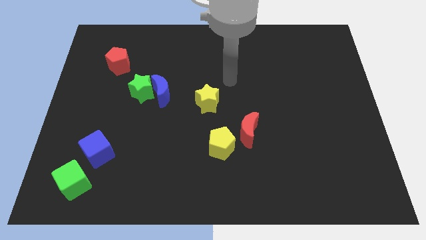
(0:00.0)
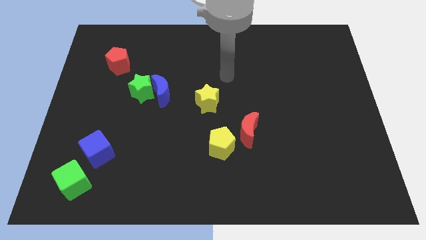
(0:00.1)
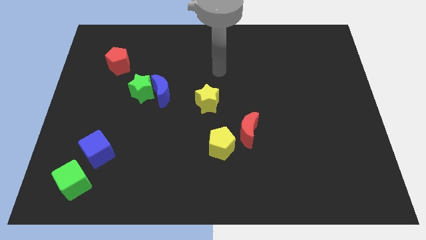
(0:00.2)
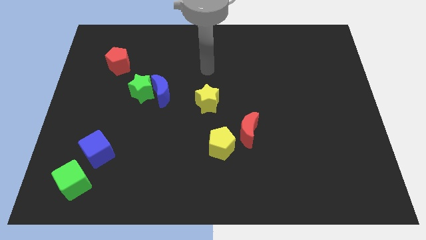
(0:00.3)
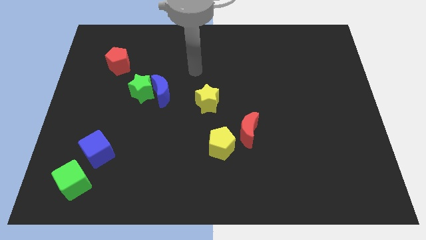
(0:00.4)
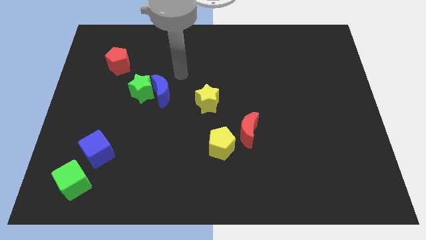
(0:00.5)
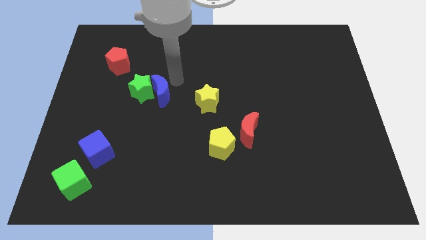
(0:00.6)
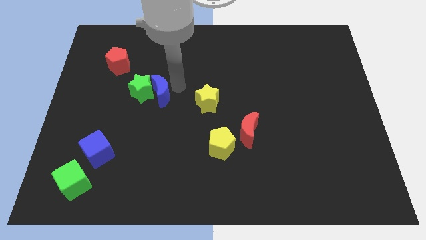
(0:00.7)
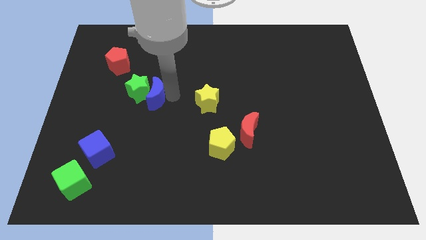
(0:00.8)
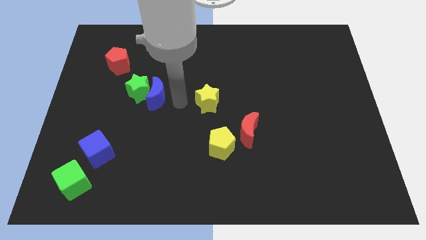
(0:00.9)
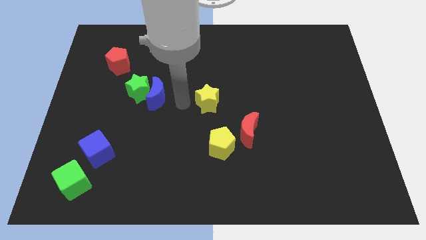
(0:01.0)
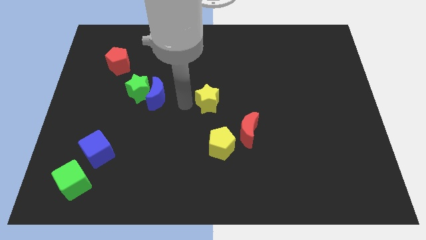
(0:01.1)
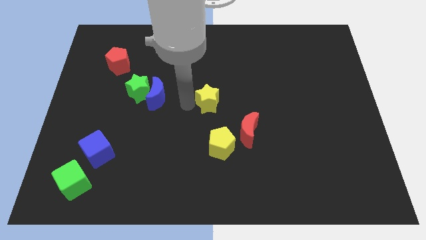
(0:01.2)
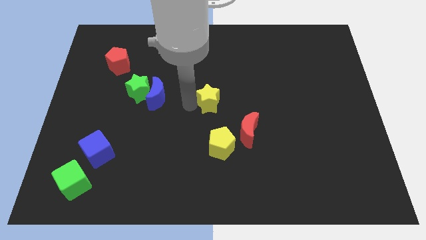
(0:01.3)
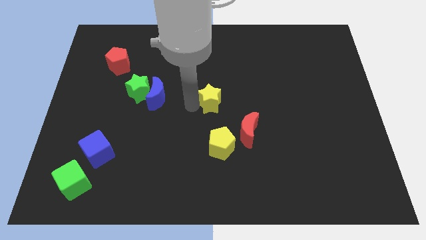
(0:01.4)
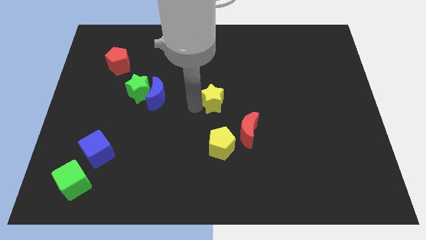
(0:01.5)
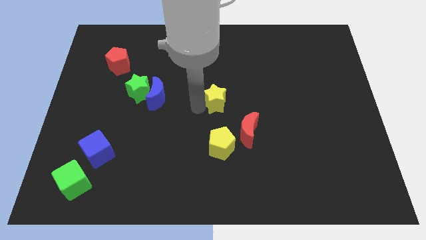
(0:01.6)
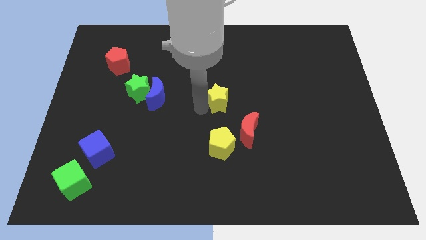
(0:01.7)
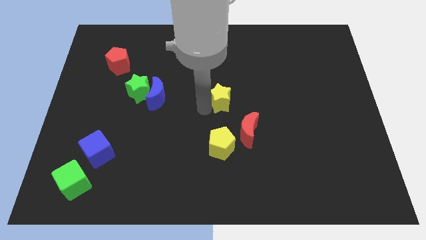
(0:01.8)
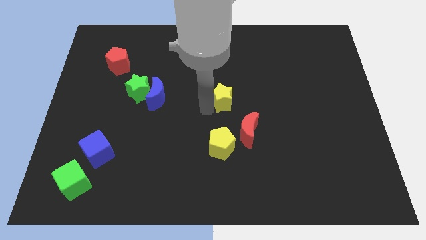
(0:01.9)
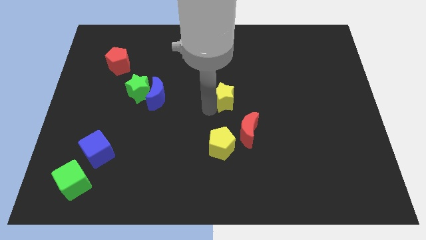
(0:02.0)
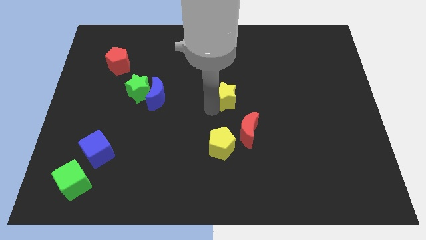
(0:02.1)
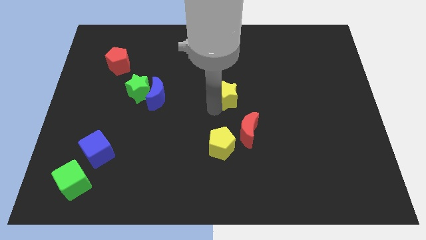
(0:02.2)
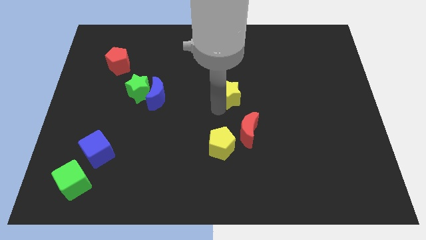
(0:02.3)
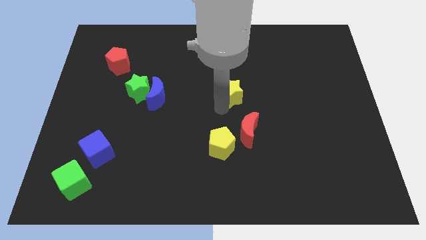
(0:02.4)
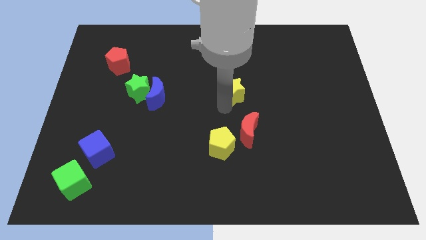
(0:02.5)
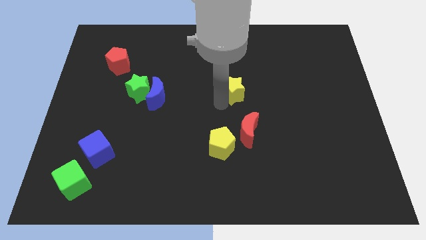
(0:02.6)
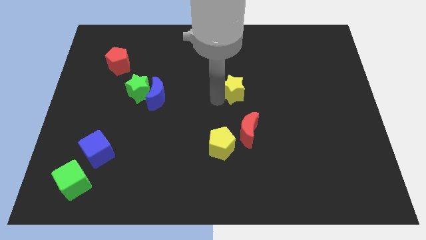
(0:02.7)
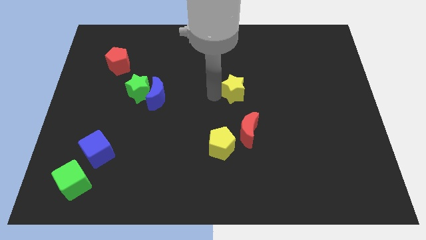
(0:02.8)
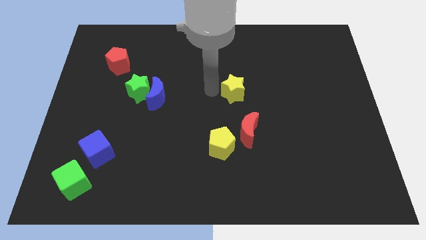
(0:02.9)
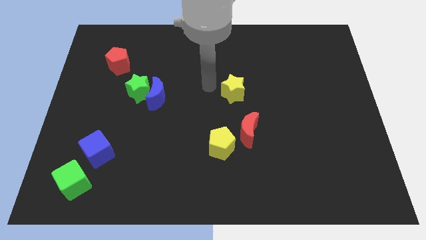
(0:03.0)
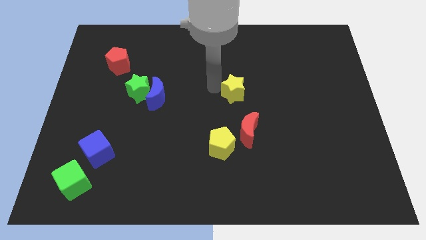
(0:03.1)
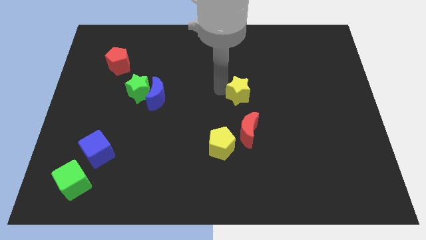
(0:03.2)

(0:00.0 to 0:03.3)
slightly slide the yellow star to the right

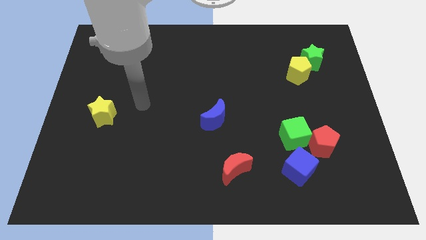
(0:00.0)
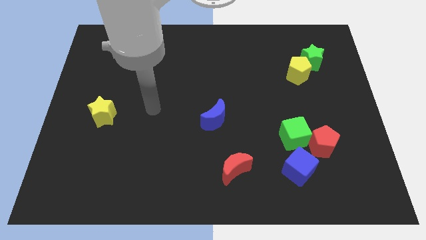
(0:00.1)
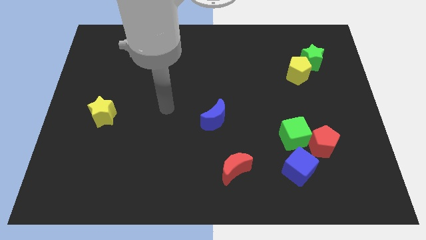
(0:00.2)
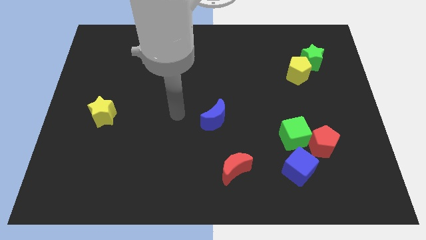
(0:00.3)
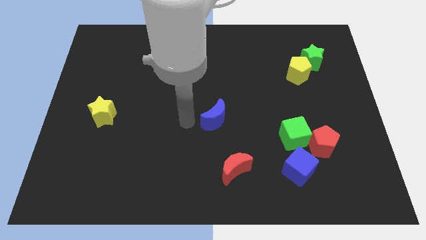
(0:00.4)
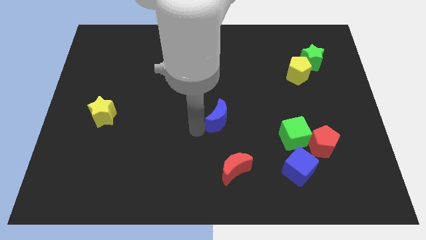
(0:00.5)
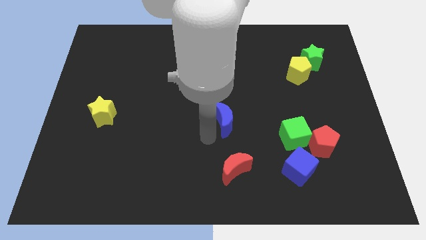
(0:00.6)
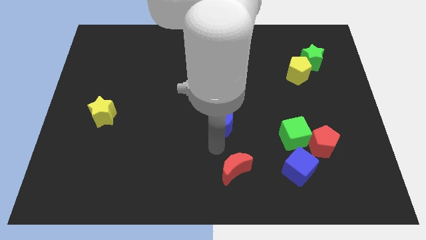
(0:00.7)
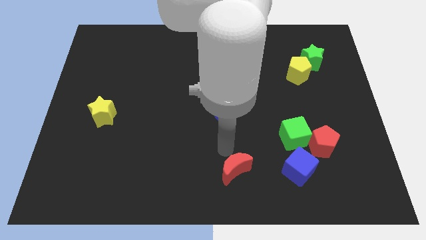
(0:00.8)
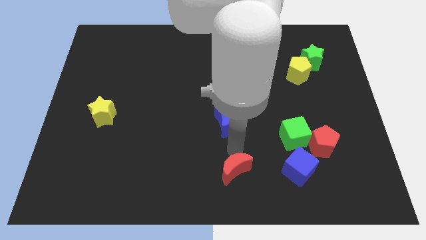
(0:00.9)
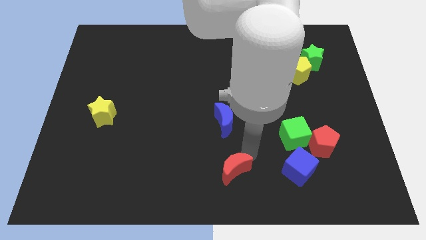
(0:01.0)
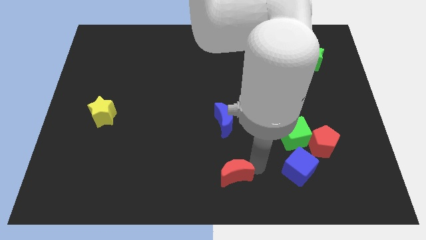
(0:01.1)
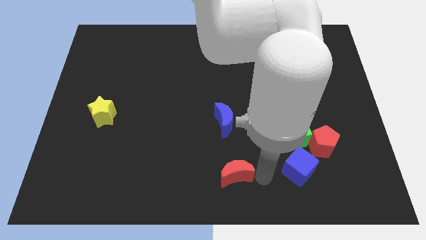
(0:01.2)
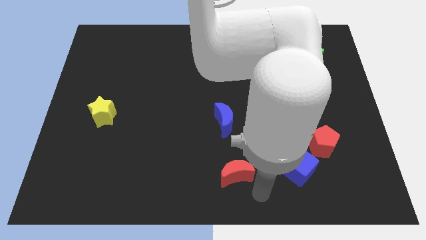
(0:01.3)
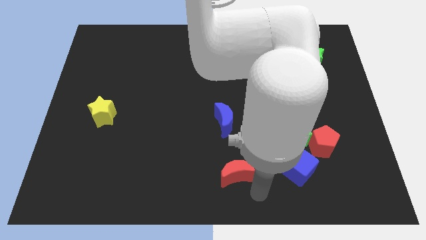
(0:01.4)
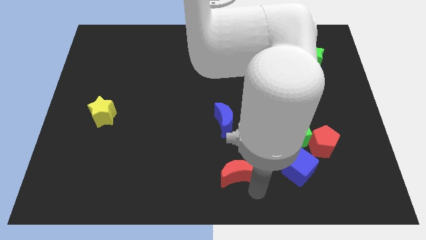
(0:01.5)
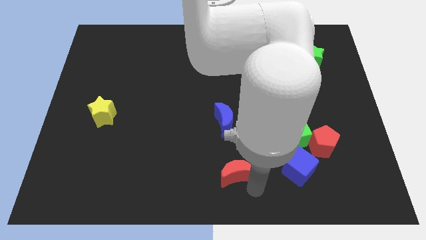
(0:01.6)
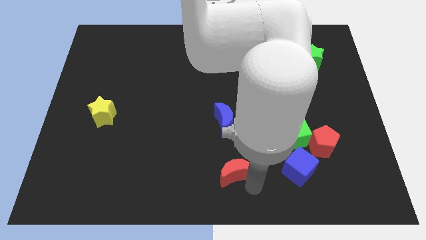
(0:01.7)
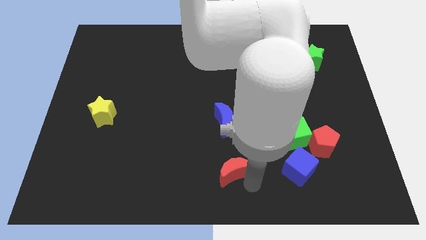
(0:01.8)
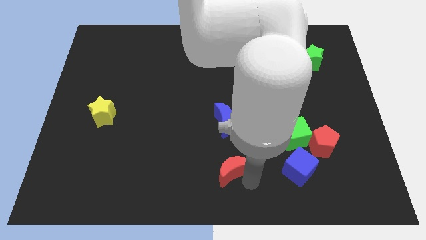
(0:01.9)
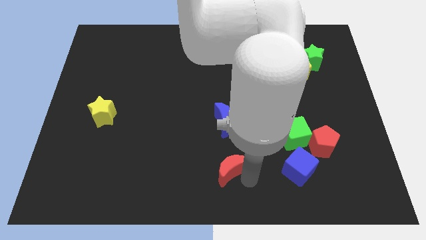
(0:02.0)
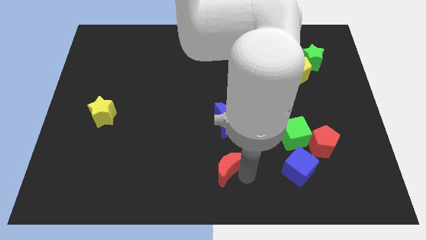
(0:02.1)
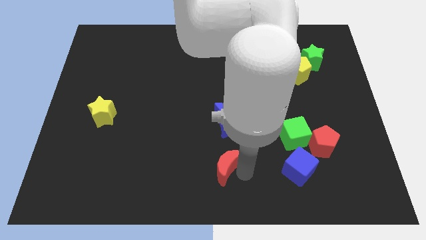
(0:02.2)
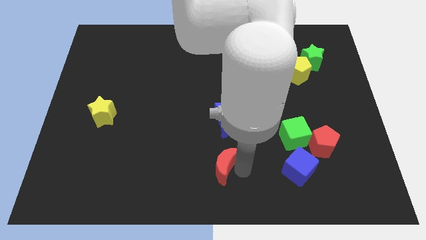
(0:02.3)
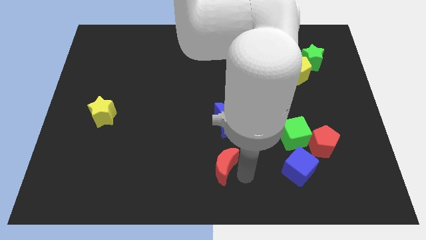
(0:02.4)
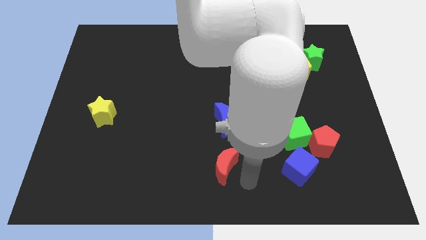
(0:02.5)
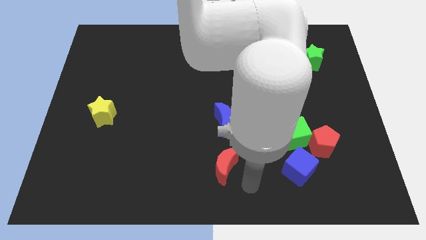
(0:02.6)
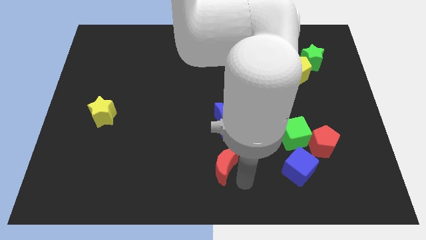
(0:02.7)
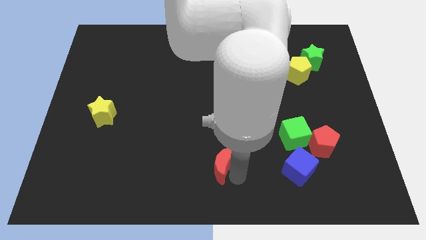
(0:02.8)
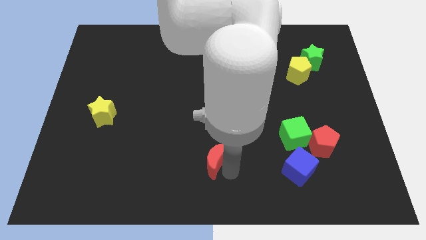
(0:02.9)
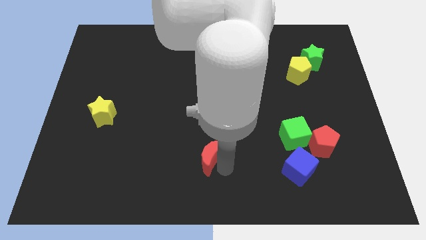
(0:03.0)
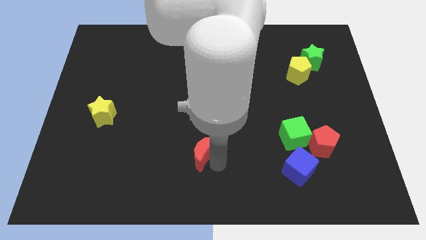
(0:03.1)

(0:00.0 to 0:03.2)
slightly move the red moon diagonally upwards and to the left

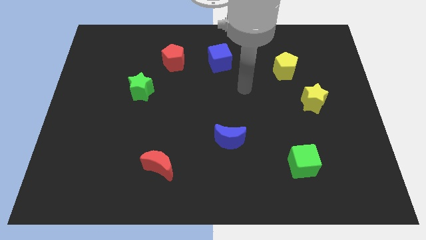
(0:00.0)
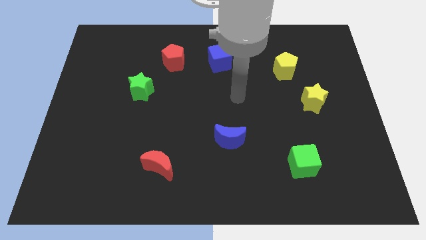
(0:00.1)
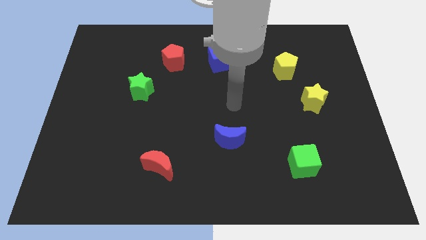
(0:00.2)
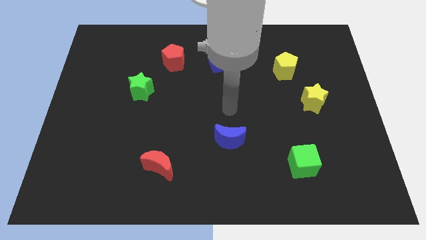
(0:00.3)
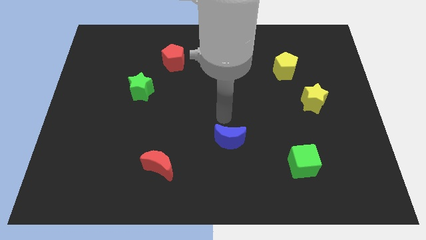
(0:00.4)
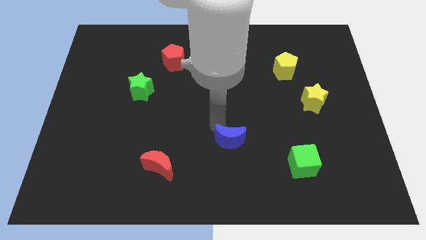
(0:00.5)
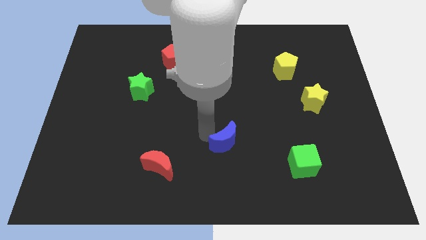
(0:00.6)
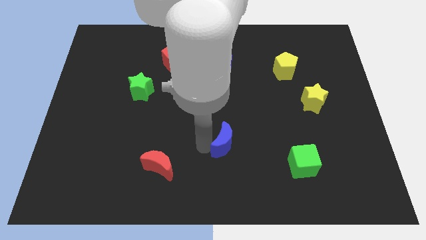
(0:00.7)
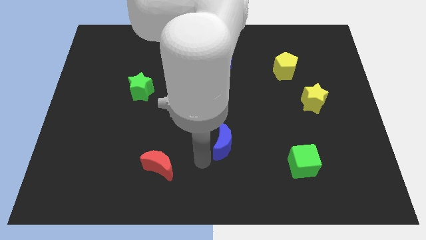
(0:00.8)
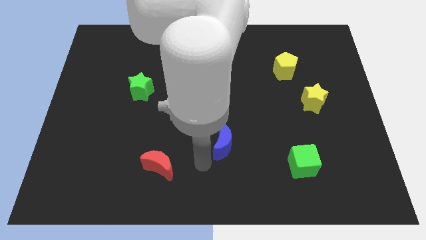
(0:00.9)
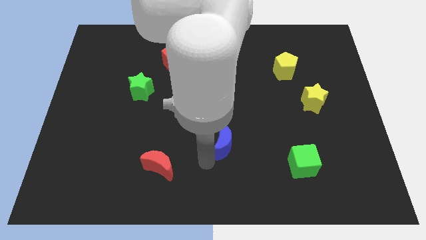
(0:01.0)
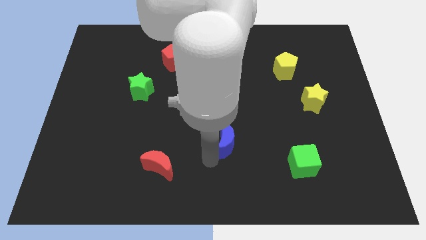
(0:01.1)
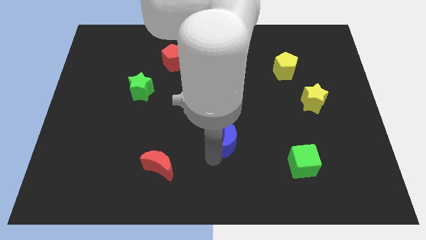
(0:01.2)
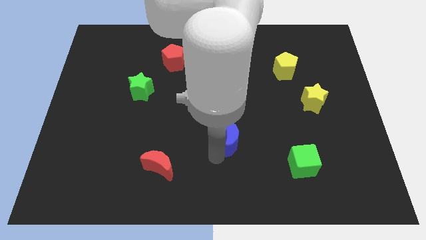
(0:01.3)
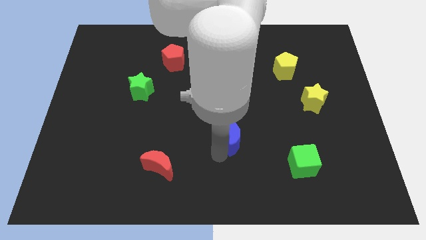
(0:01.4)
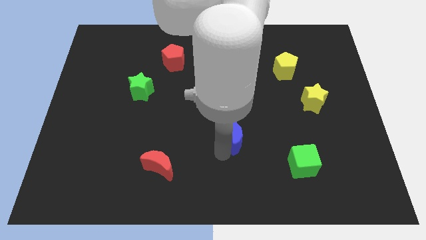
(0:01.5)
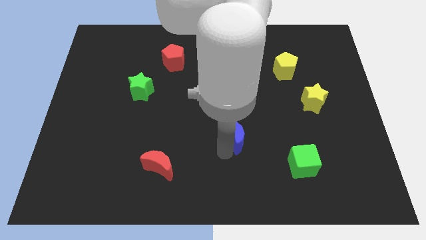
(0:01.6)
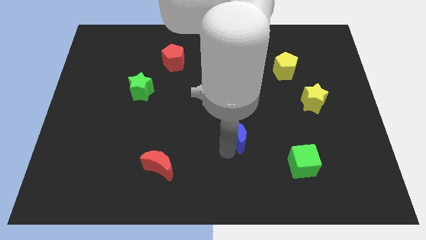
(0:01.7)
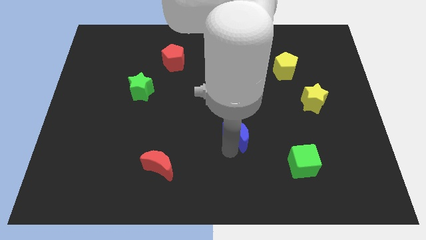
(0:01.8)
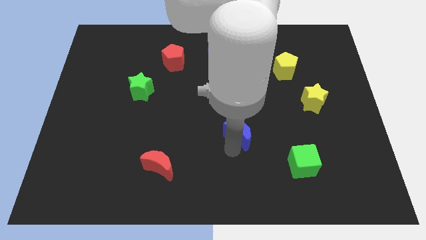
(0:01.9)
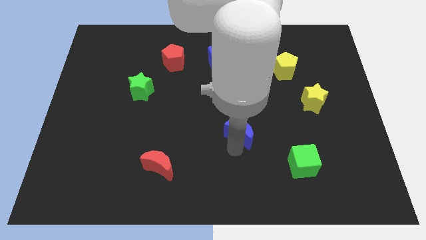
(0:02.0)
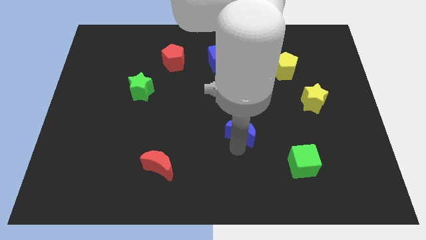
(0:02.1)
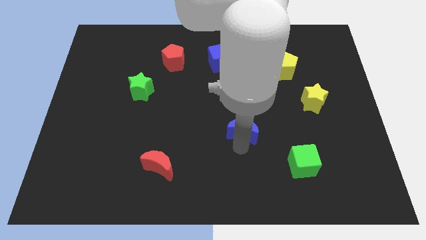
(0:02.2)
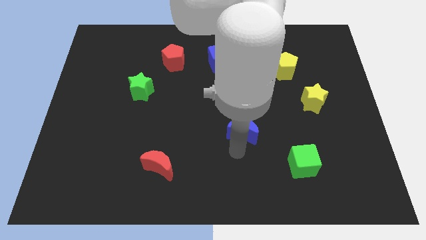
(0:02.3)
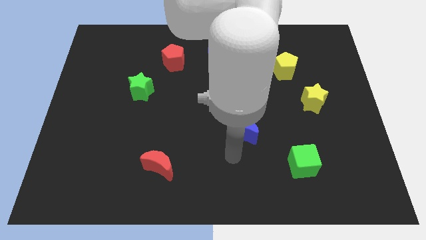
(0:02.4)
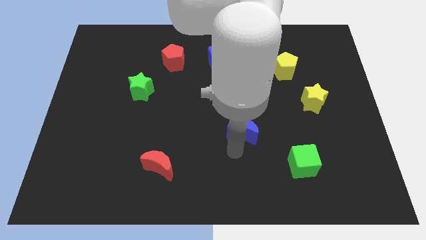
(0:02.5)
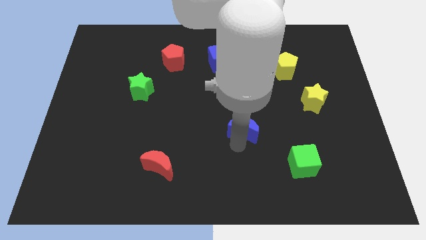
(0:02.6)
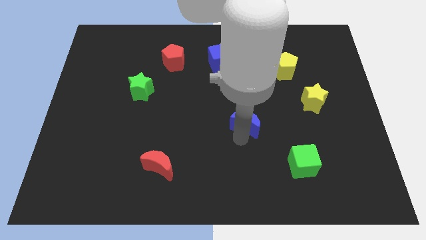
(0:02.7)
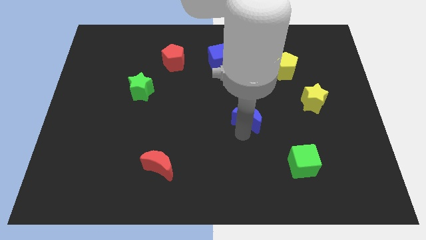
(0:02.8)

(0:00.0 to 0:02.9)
slightly move the blue moon upwards and to the right
